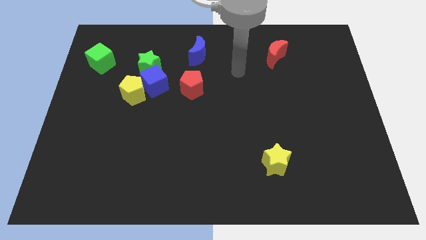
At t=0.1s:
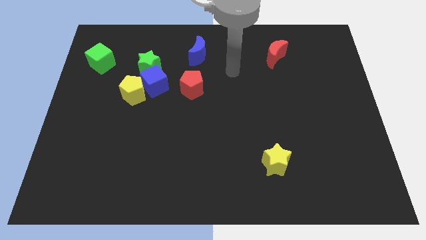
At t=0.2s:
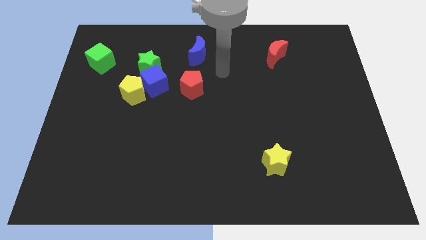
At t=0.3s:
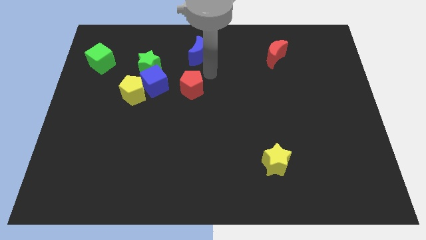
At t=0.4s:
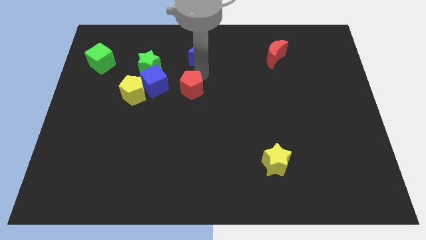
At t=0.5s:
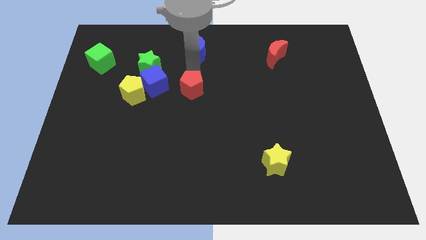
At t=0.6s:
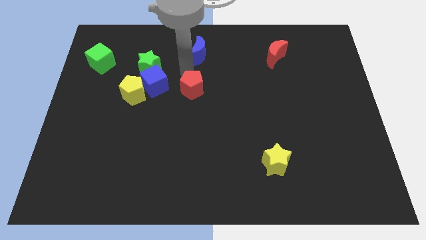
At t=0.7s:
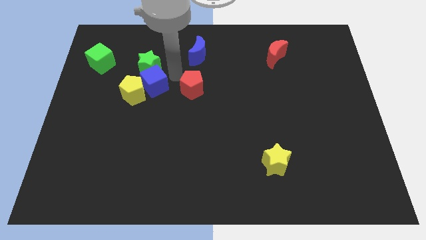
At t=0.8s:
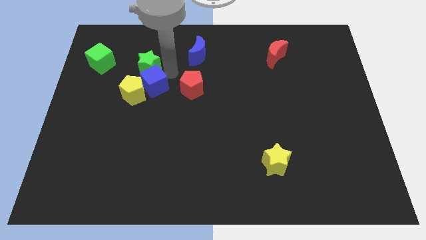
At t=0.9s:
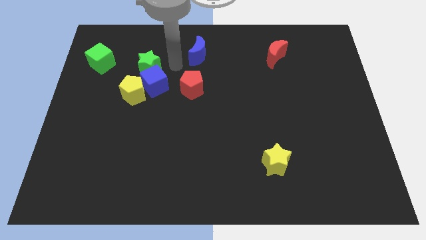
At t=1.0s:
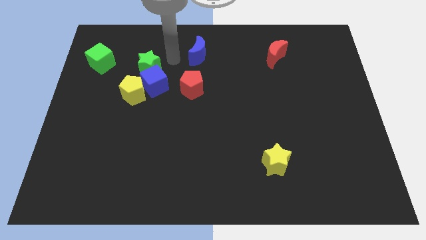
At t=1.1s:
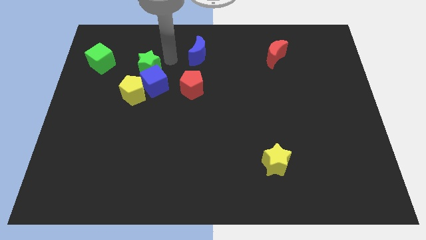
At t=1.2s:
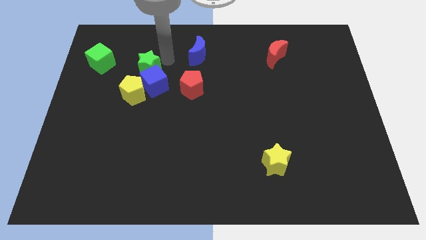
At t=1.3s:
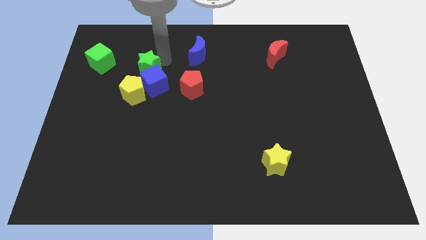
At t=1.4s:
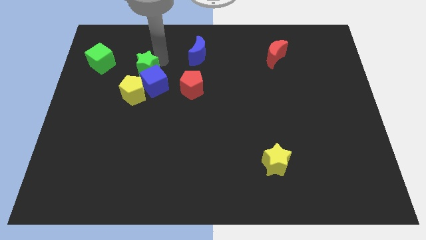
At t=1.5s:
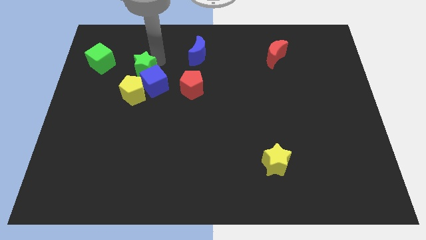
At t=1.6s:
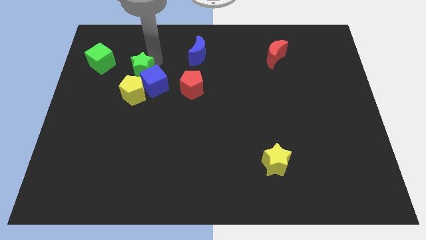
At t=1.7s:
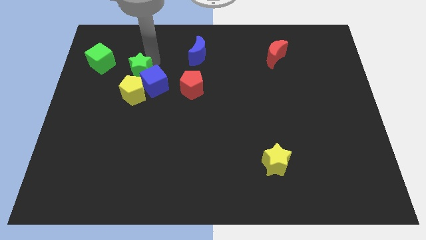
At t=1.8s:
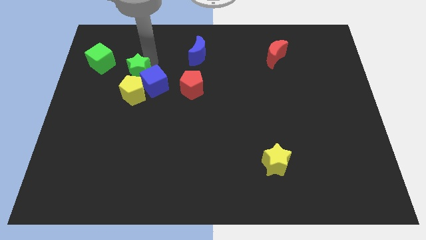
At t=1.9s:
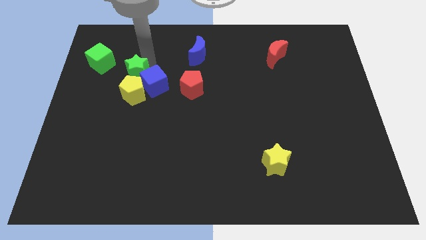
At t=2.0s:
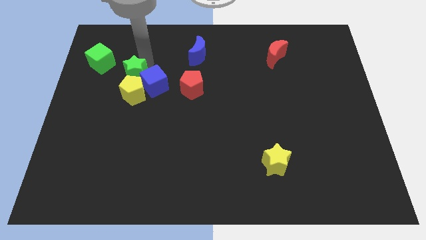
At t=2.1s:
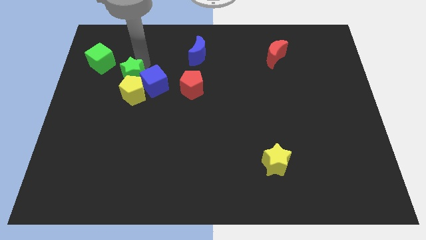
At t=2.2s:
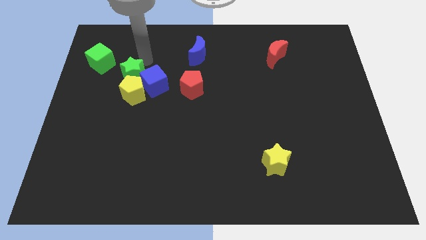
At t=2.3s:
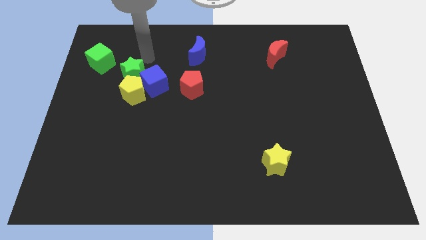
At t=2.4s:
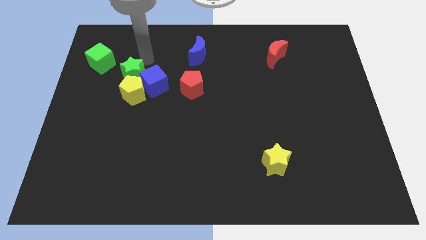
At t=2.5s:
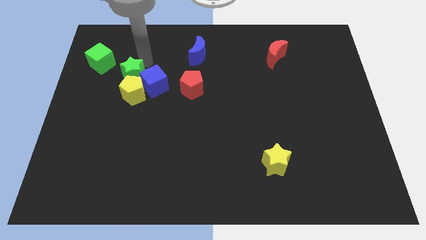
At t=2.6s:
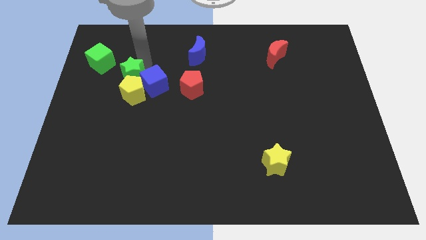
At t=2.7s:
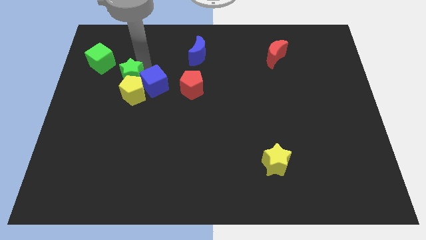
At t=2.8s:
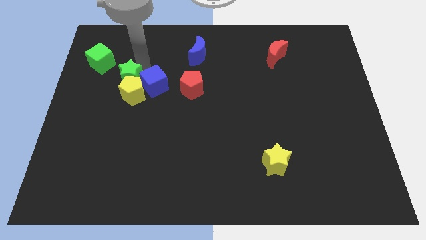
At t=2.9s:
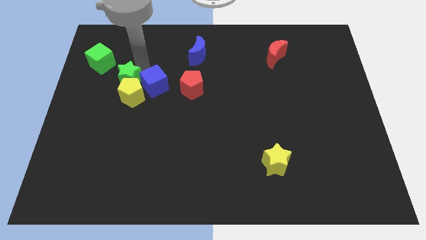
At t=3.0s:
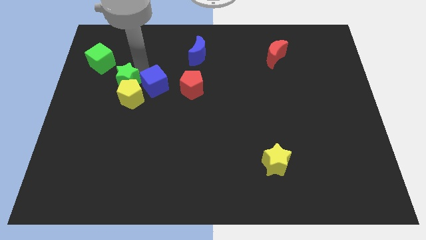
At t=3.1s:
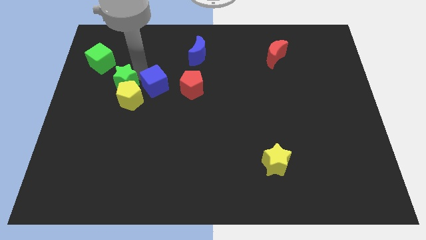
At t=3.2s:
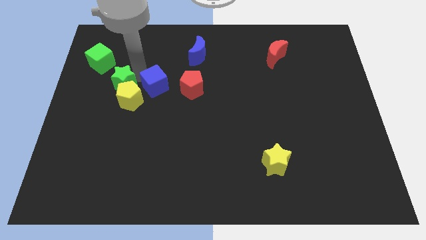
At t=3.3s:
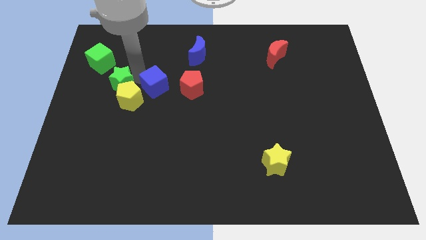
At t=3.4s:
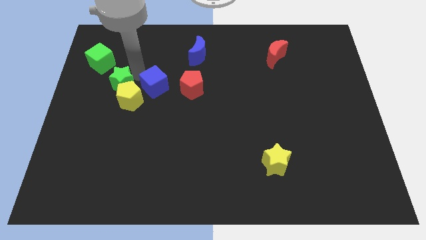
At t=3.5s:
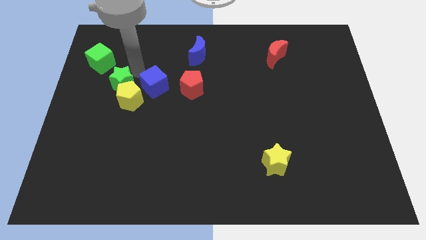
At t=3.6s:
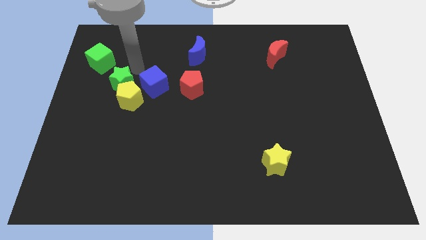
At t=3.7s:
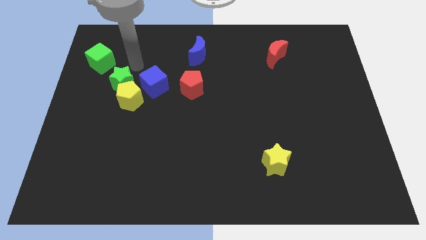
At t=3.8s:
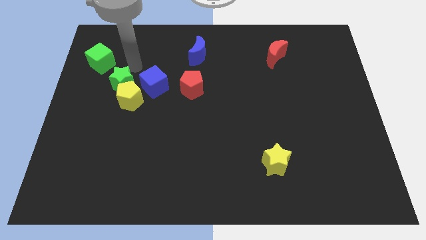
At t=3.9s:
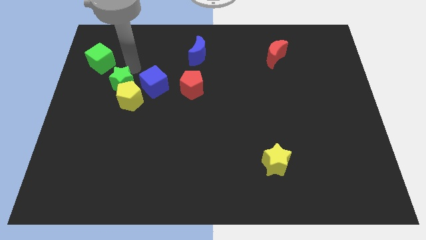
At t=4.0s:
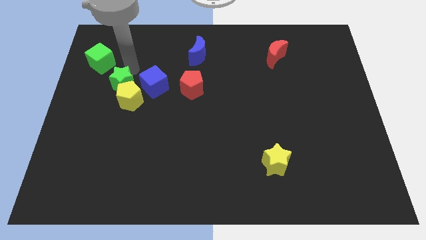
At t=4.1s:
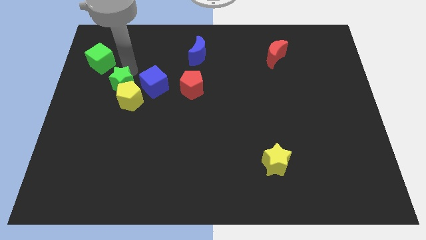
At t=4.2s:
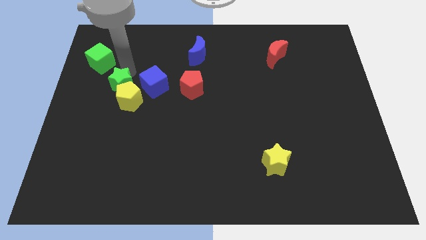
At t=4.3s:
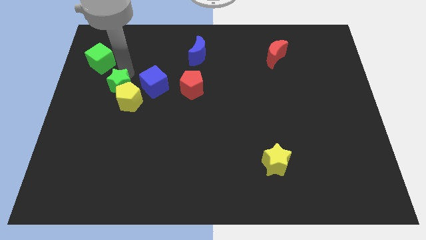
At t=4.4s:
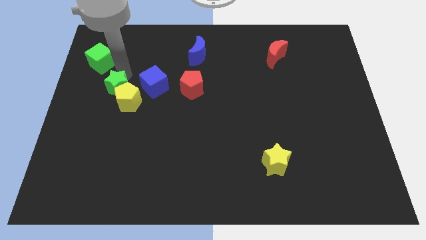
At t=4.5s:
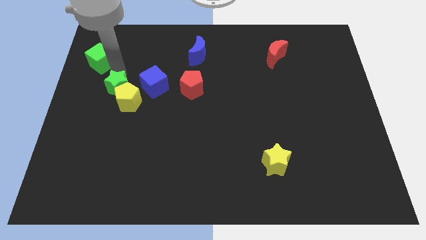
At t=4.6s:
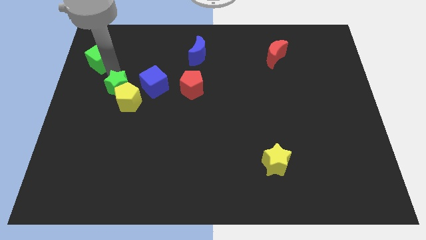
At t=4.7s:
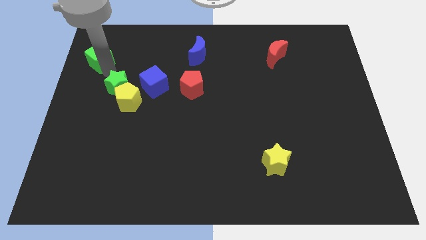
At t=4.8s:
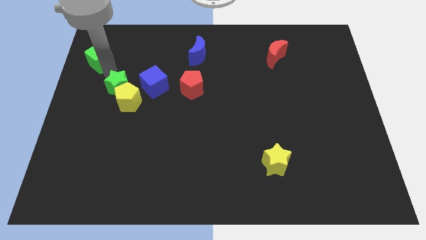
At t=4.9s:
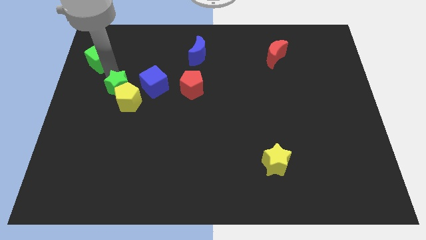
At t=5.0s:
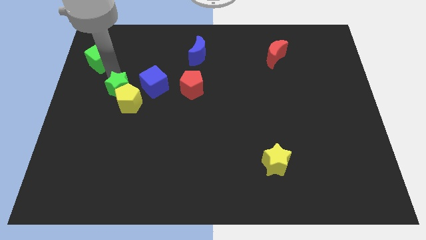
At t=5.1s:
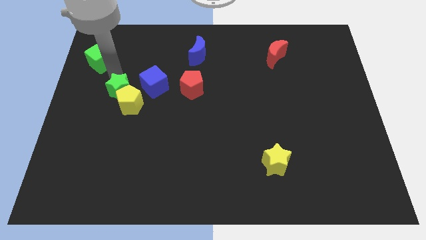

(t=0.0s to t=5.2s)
put the green star diagonally down and to the left of the blue cube

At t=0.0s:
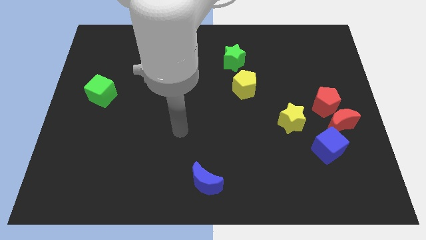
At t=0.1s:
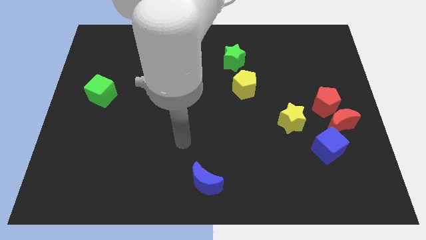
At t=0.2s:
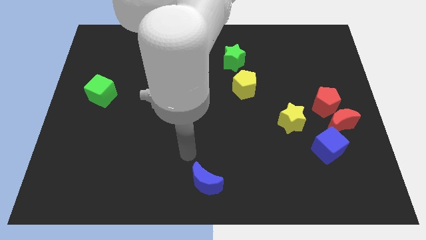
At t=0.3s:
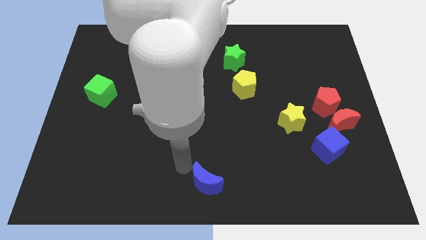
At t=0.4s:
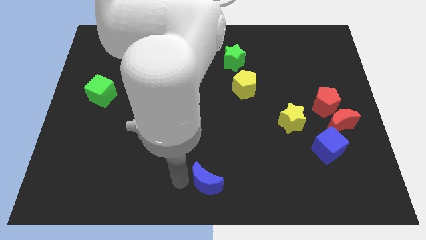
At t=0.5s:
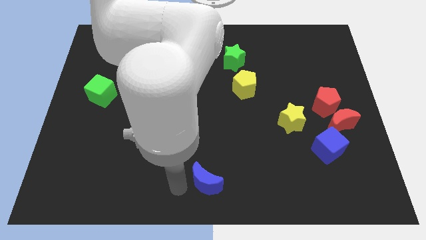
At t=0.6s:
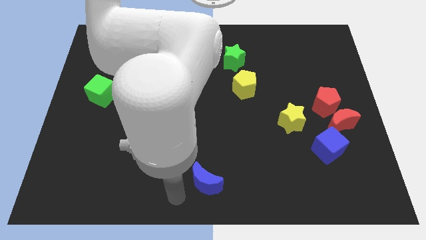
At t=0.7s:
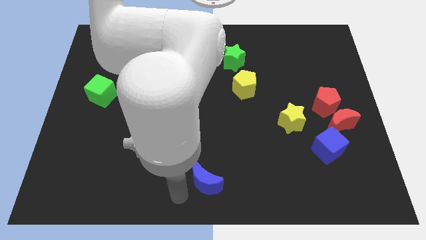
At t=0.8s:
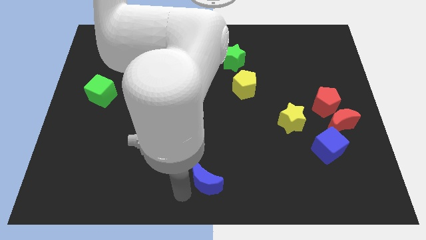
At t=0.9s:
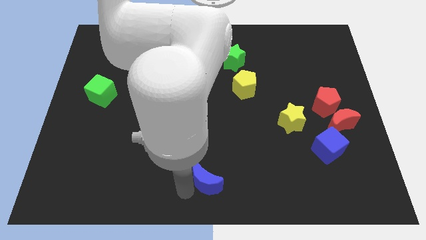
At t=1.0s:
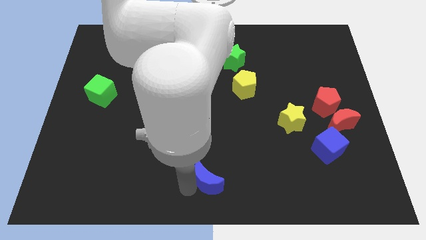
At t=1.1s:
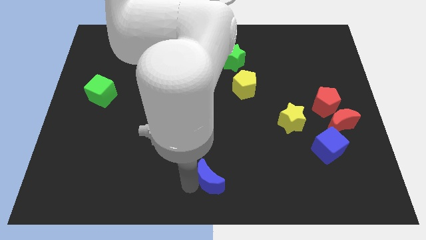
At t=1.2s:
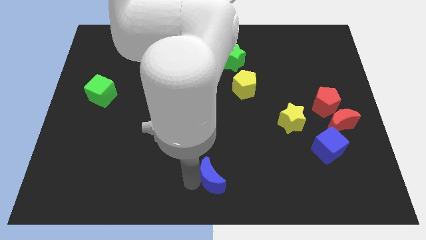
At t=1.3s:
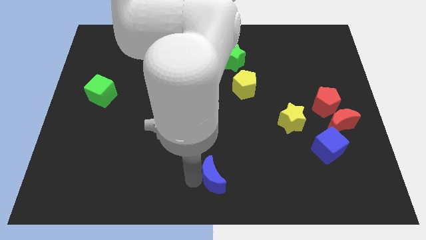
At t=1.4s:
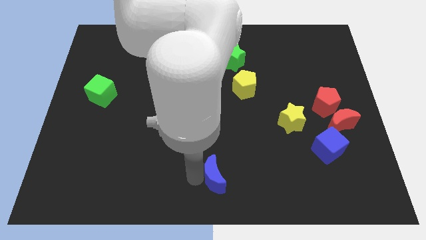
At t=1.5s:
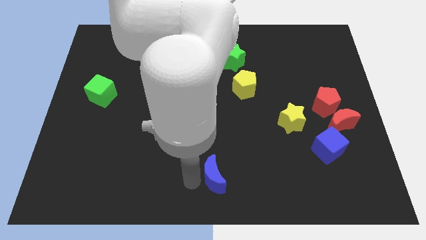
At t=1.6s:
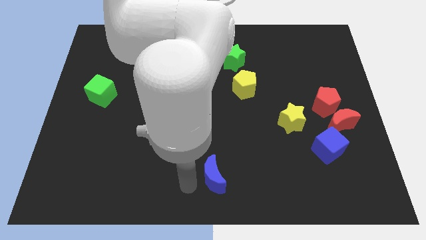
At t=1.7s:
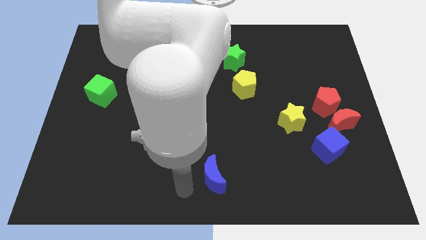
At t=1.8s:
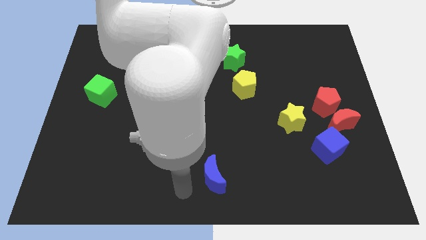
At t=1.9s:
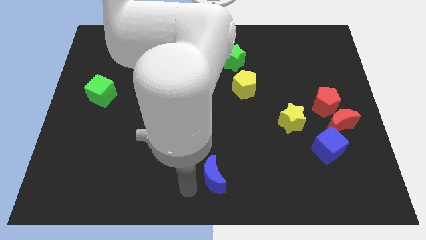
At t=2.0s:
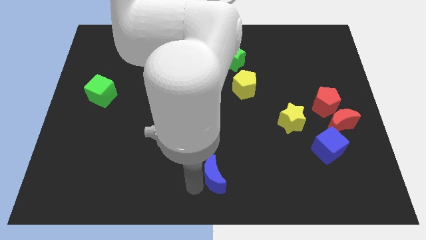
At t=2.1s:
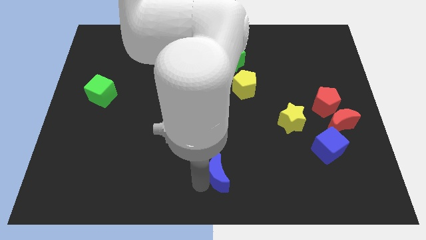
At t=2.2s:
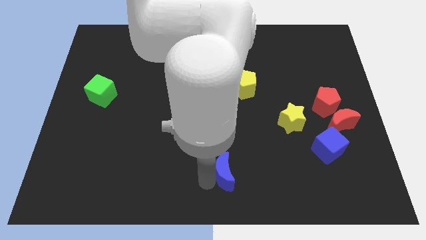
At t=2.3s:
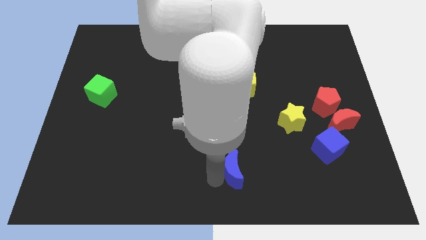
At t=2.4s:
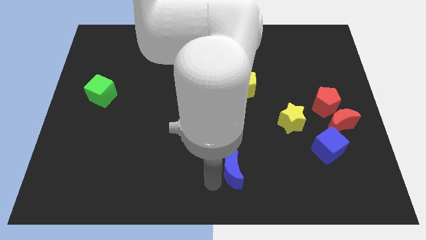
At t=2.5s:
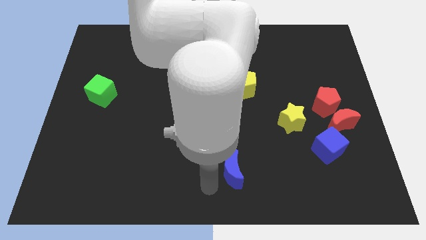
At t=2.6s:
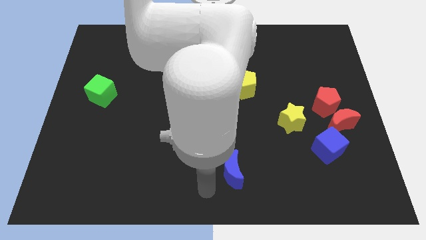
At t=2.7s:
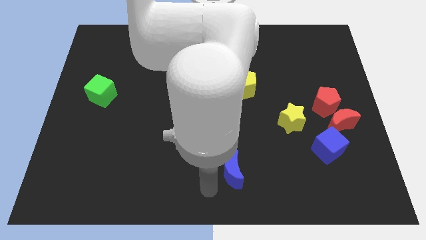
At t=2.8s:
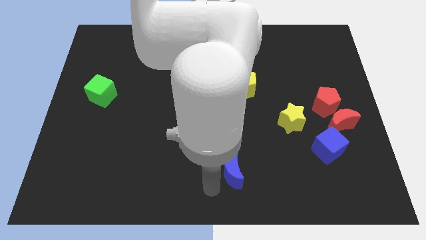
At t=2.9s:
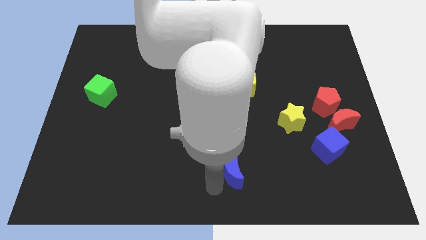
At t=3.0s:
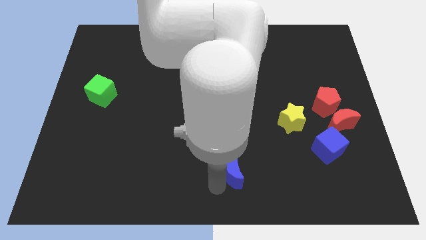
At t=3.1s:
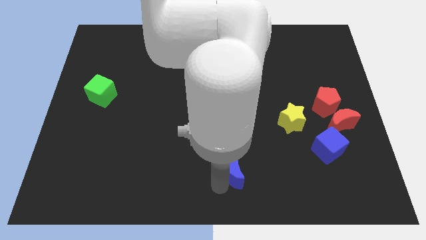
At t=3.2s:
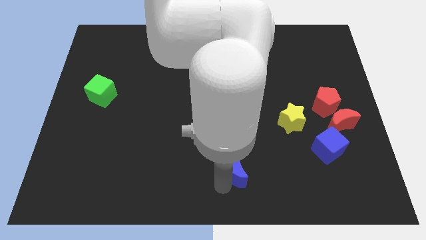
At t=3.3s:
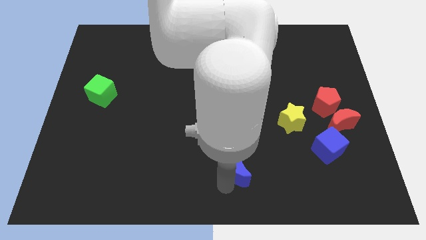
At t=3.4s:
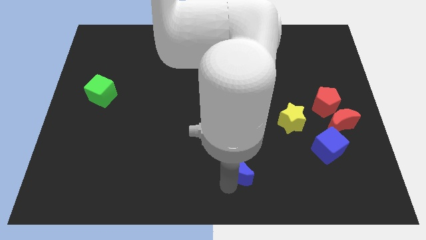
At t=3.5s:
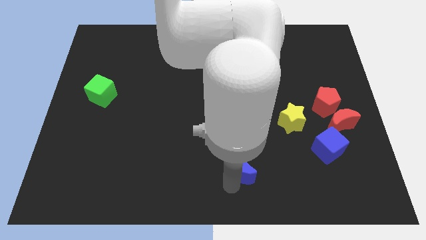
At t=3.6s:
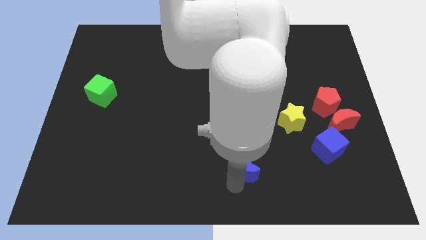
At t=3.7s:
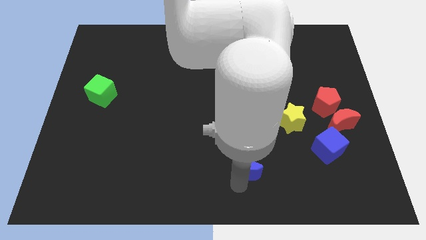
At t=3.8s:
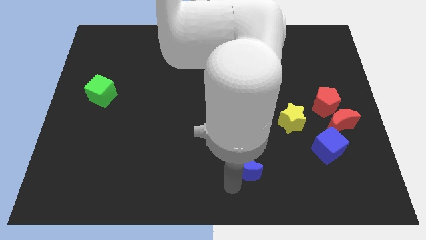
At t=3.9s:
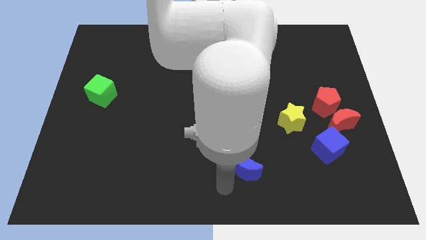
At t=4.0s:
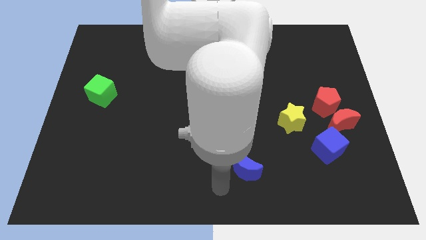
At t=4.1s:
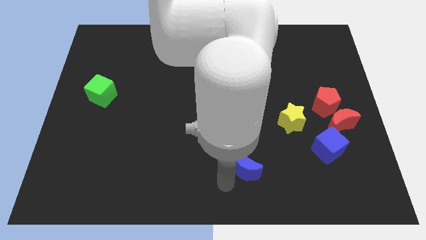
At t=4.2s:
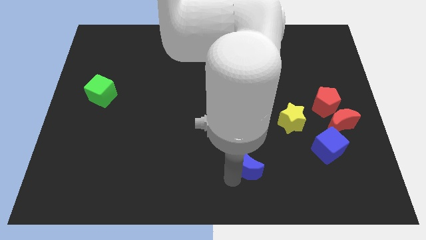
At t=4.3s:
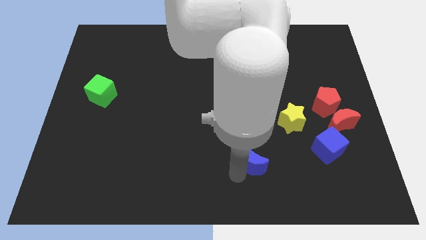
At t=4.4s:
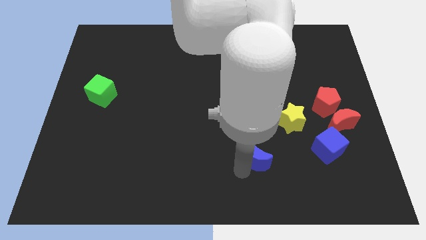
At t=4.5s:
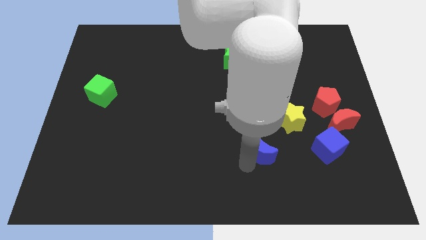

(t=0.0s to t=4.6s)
put the blue moon to the left side of the blue cube
